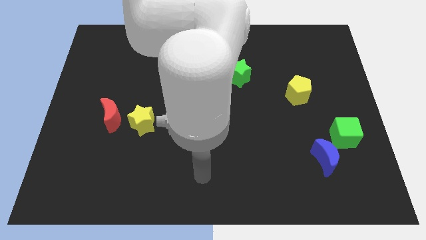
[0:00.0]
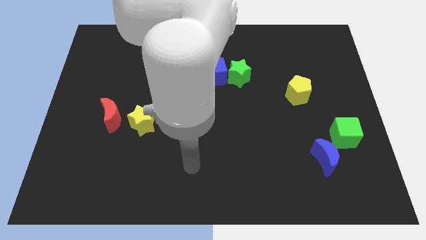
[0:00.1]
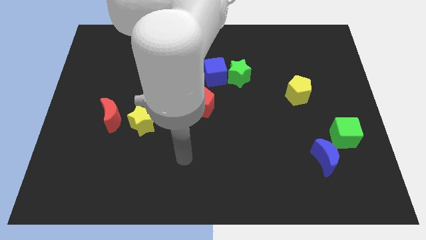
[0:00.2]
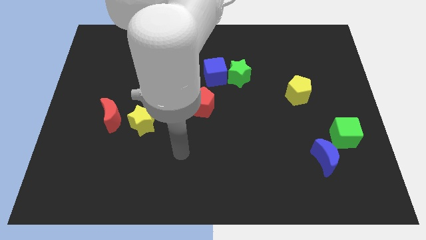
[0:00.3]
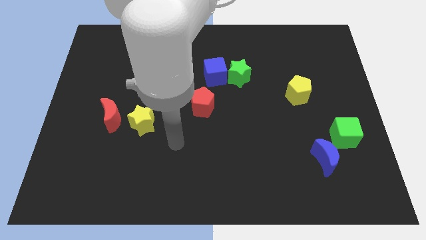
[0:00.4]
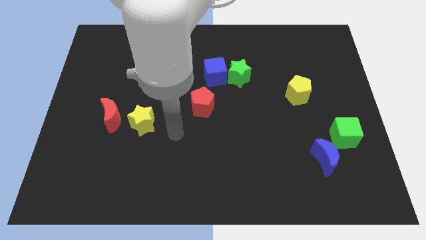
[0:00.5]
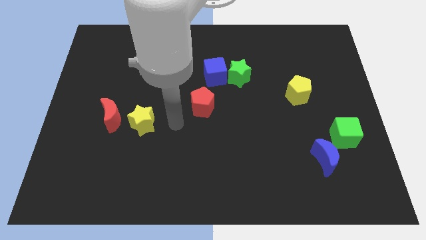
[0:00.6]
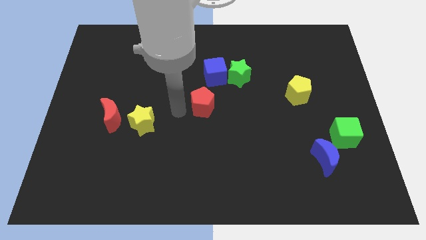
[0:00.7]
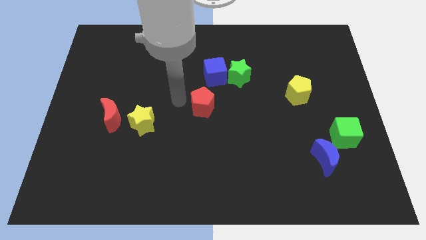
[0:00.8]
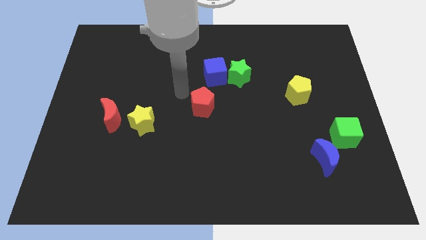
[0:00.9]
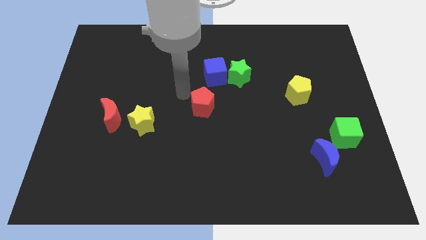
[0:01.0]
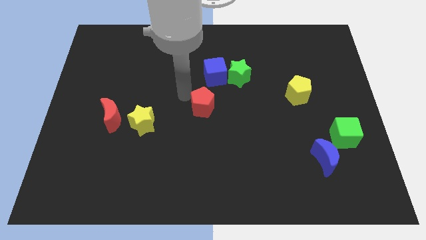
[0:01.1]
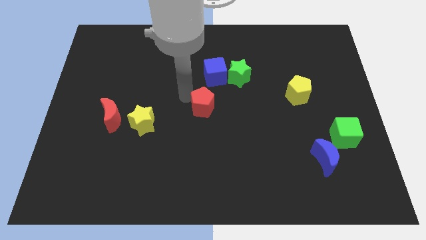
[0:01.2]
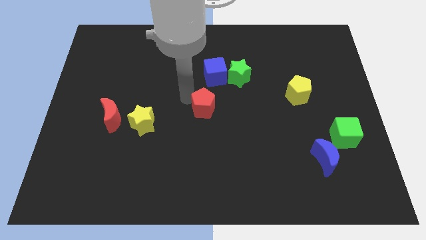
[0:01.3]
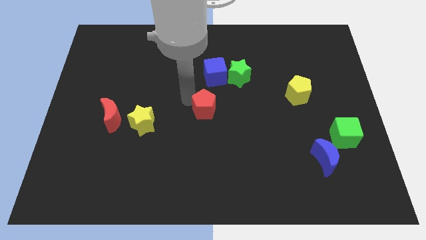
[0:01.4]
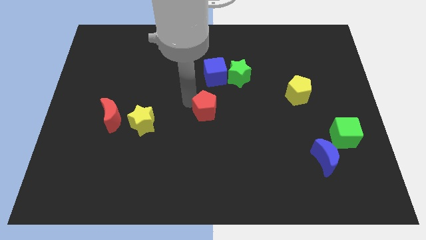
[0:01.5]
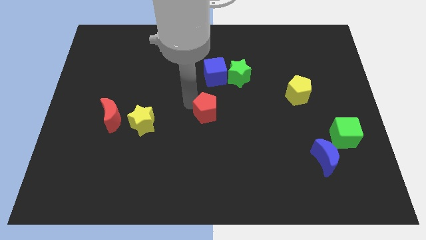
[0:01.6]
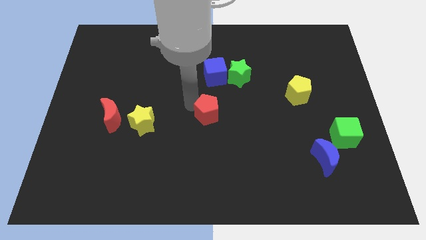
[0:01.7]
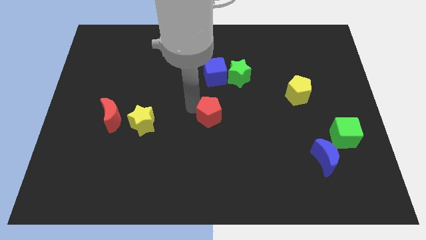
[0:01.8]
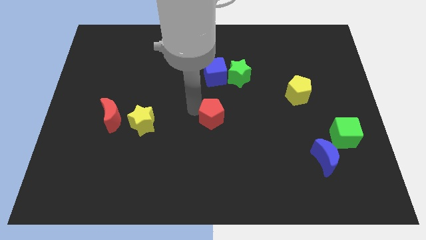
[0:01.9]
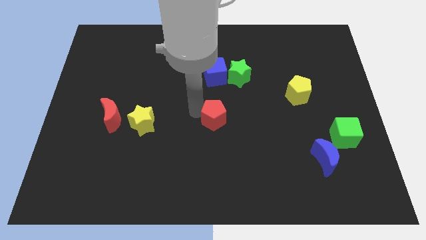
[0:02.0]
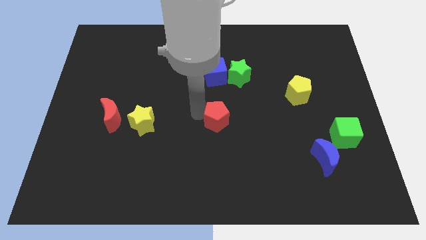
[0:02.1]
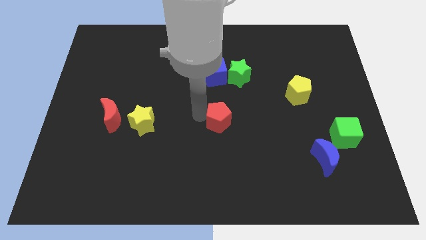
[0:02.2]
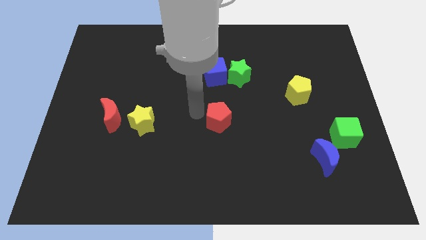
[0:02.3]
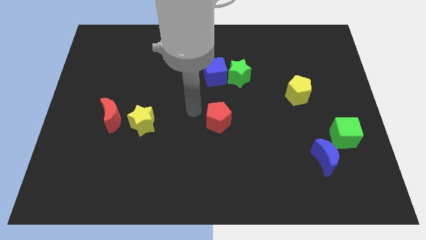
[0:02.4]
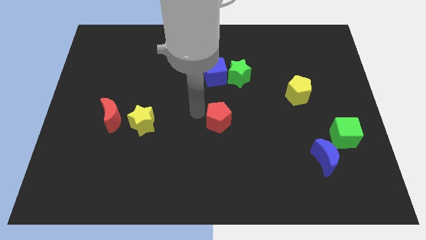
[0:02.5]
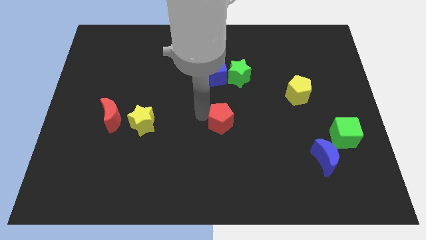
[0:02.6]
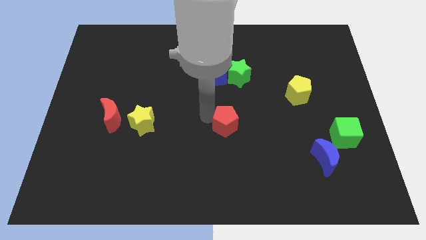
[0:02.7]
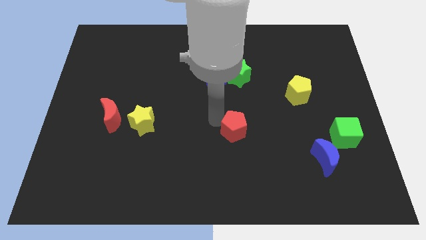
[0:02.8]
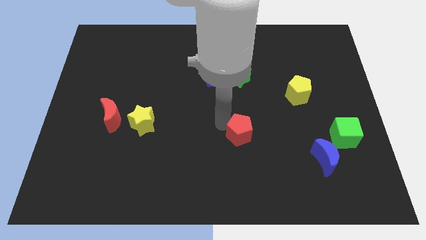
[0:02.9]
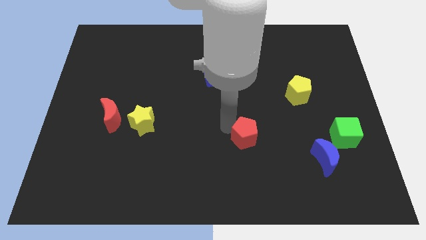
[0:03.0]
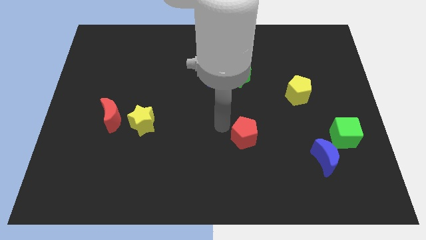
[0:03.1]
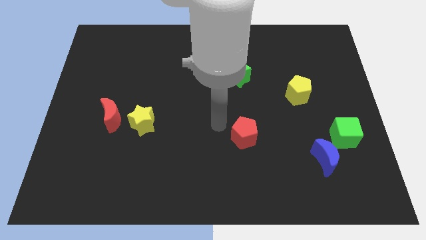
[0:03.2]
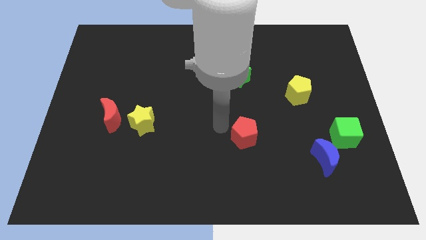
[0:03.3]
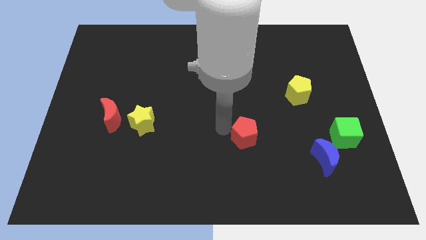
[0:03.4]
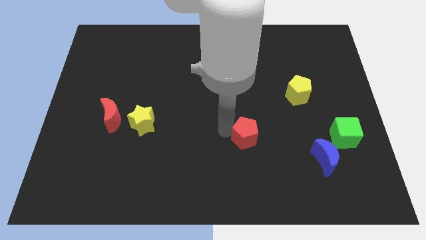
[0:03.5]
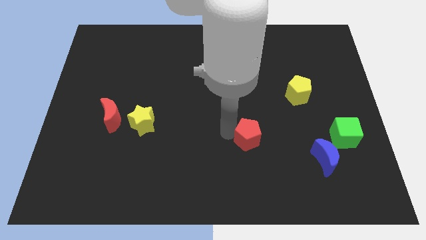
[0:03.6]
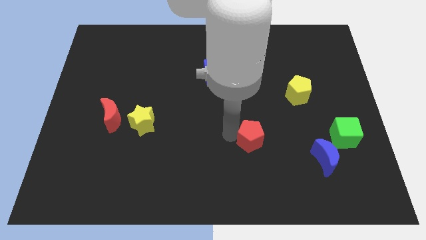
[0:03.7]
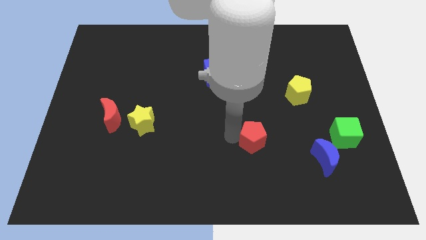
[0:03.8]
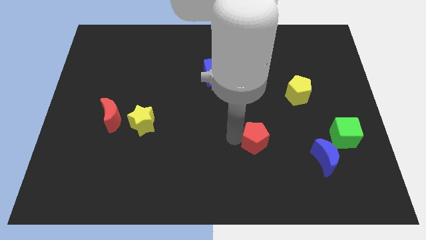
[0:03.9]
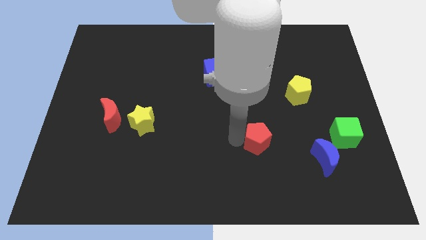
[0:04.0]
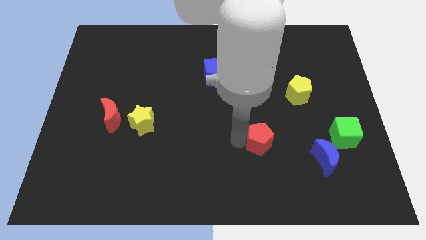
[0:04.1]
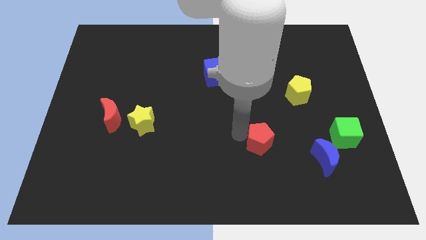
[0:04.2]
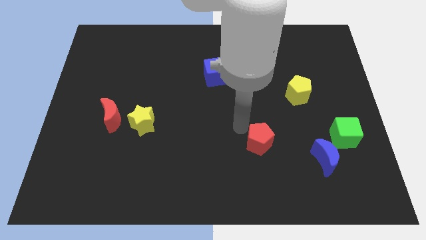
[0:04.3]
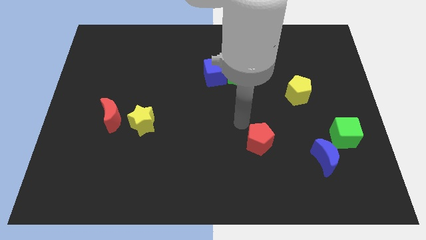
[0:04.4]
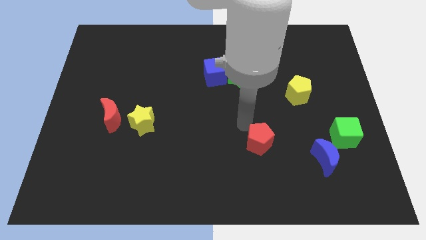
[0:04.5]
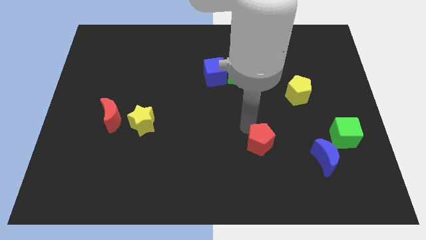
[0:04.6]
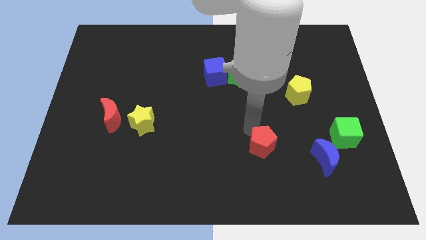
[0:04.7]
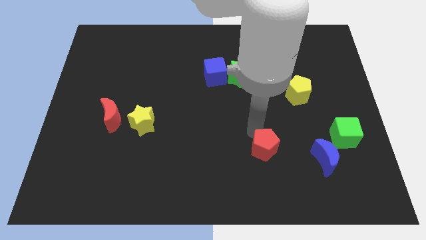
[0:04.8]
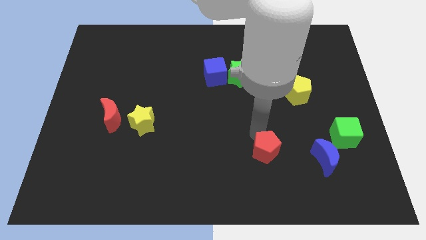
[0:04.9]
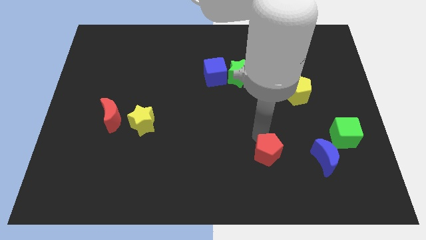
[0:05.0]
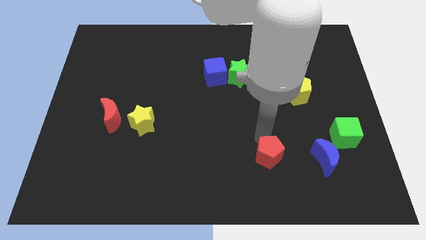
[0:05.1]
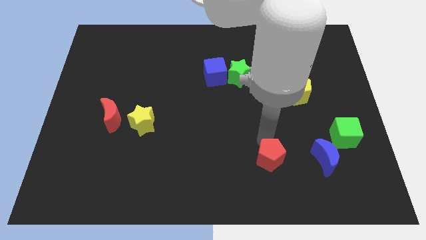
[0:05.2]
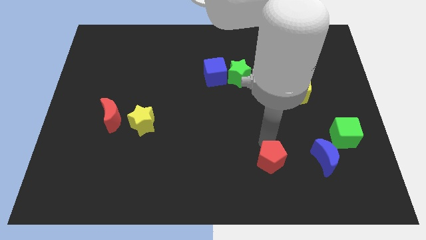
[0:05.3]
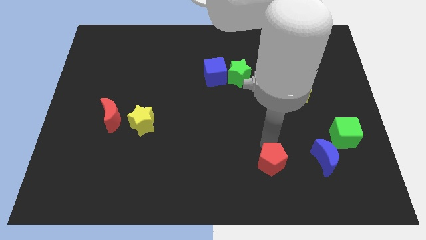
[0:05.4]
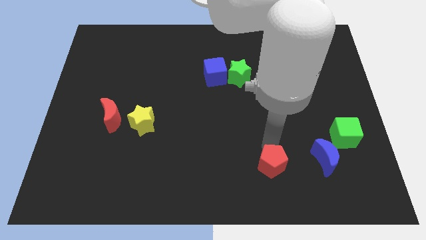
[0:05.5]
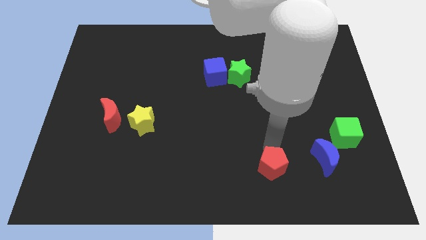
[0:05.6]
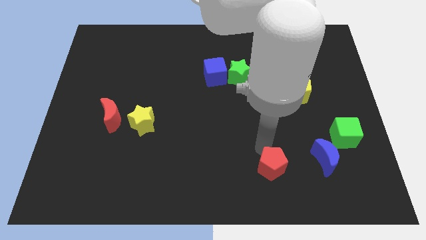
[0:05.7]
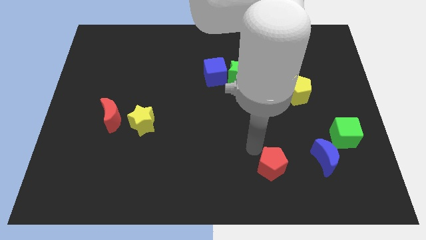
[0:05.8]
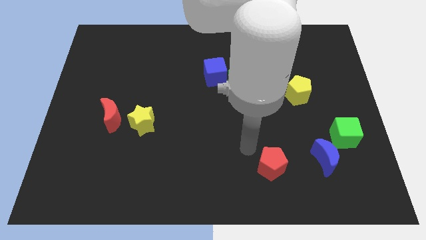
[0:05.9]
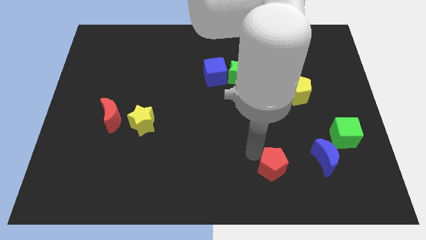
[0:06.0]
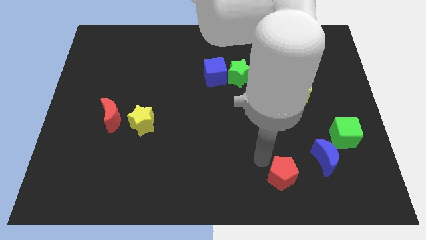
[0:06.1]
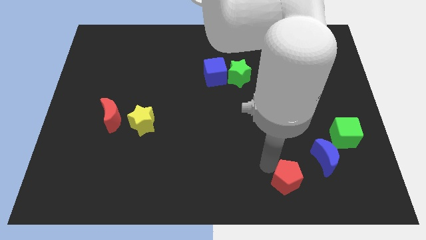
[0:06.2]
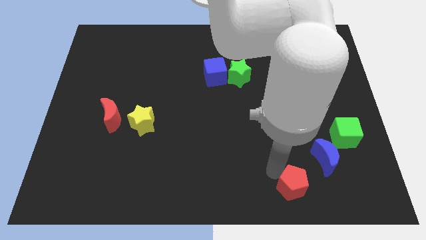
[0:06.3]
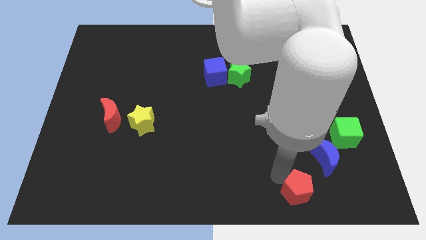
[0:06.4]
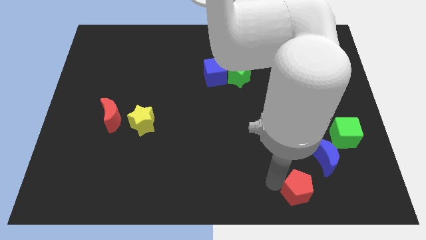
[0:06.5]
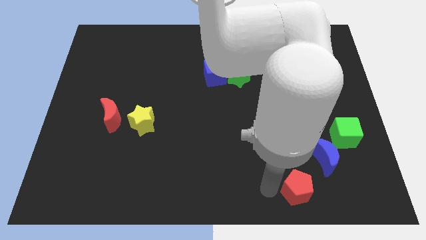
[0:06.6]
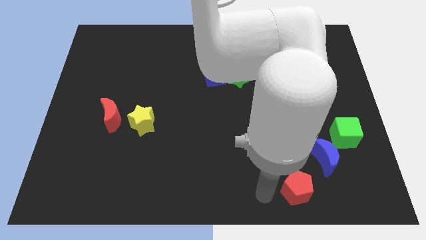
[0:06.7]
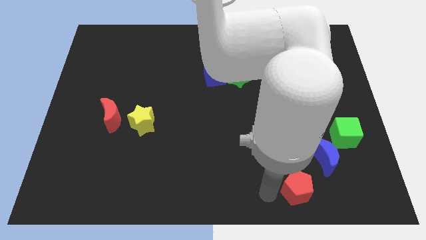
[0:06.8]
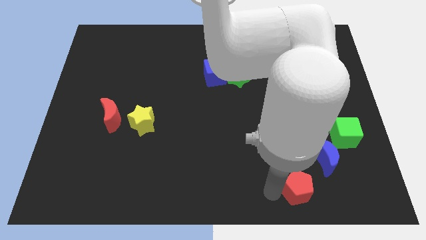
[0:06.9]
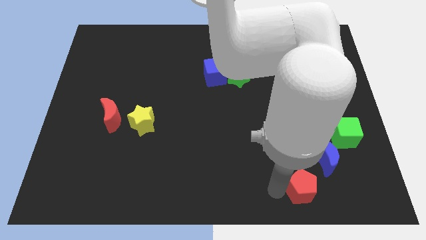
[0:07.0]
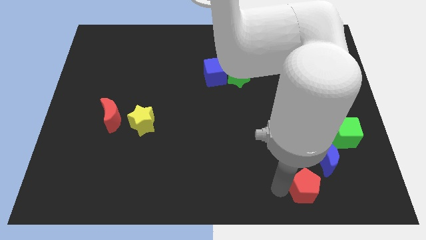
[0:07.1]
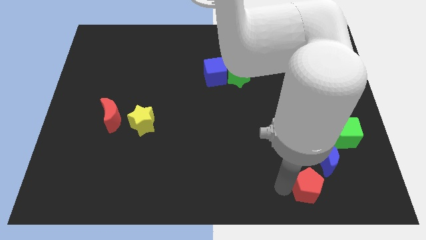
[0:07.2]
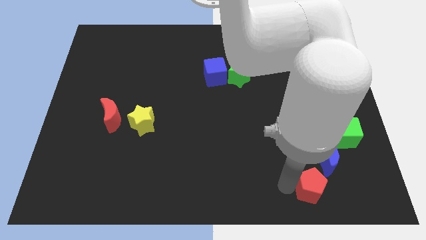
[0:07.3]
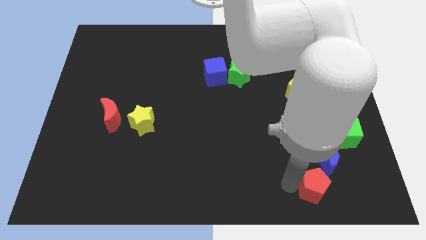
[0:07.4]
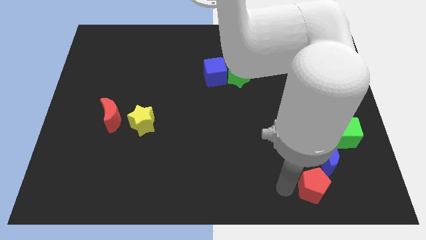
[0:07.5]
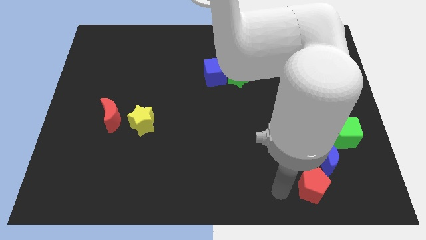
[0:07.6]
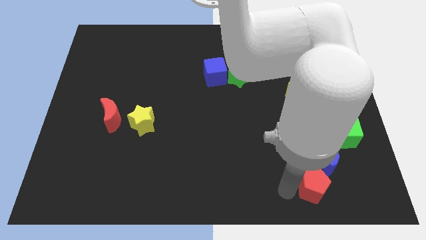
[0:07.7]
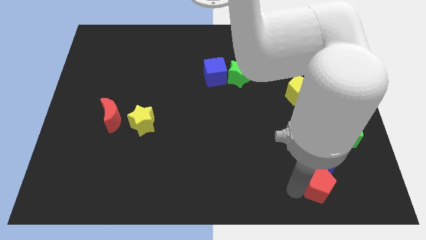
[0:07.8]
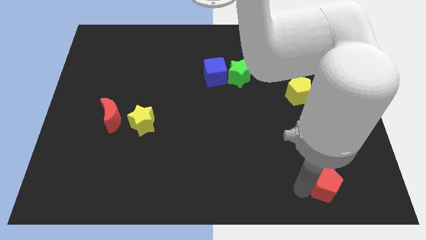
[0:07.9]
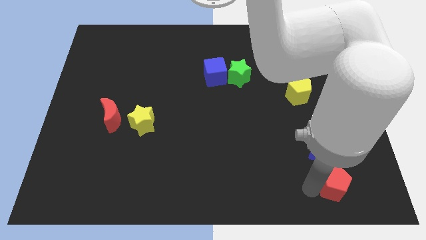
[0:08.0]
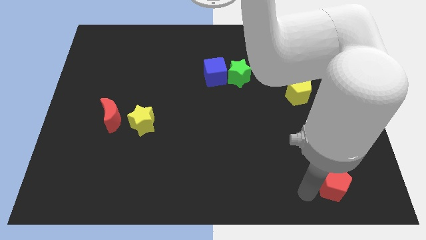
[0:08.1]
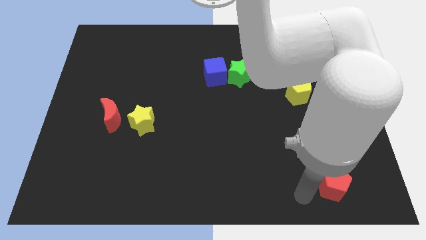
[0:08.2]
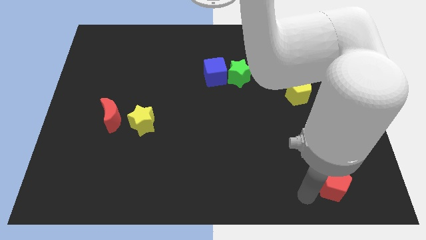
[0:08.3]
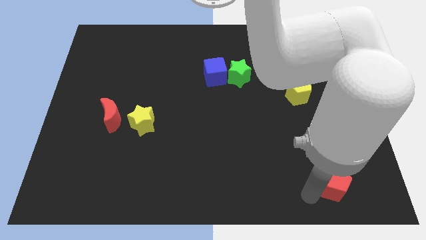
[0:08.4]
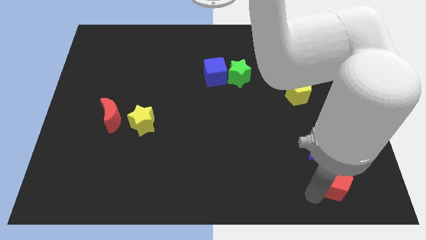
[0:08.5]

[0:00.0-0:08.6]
put the red pentagon to the bottom side of the green cube
